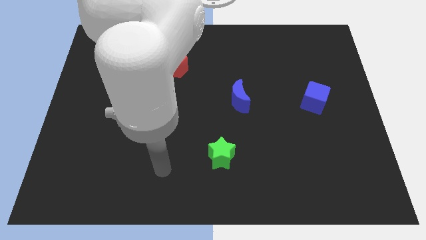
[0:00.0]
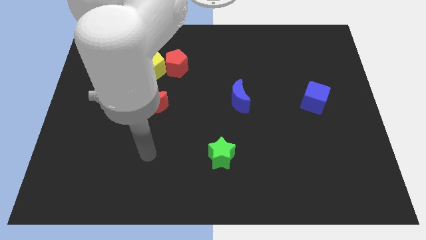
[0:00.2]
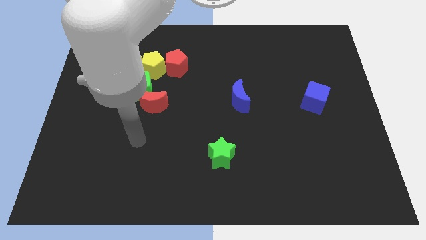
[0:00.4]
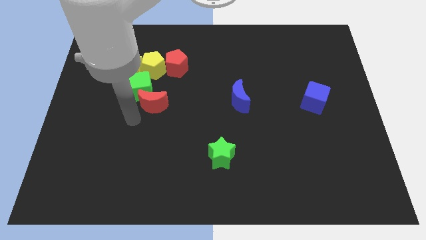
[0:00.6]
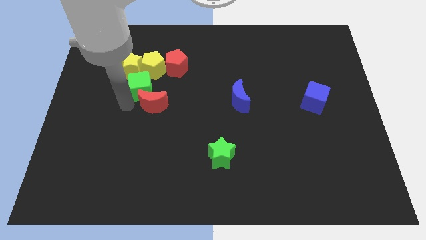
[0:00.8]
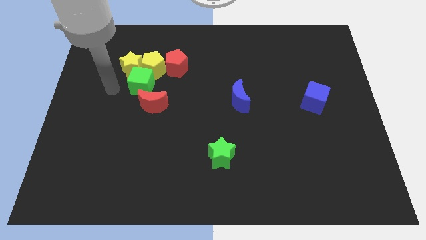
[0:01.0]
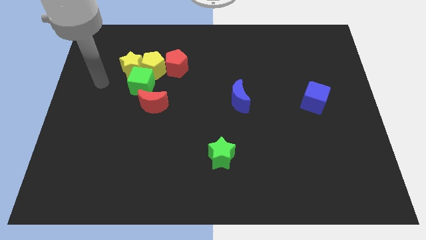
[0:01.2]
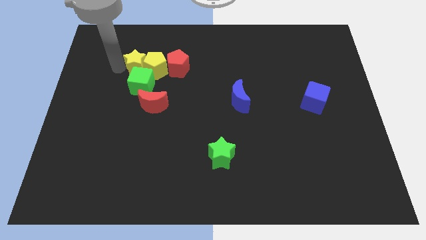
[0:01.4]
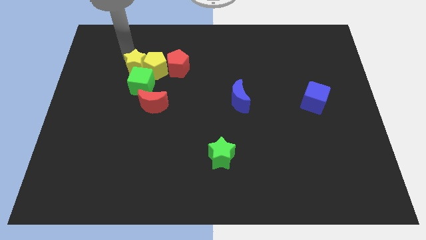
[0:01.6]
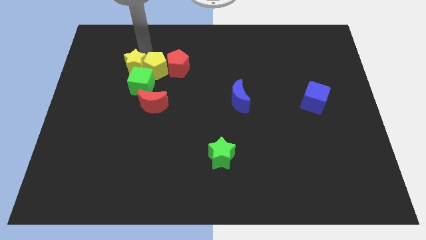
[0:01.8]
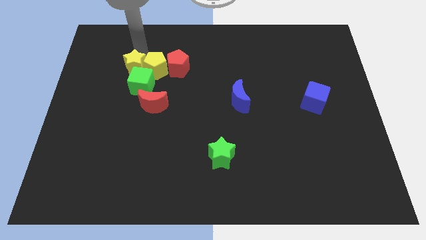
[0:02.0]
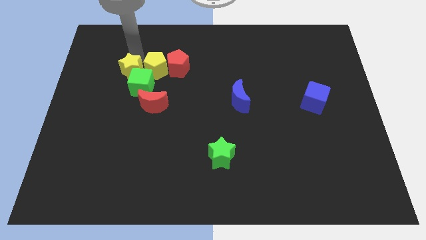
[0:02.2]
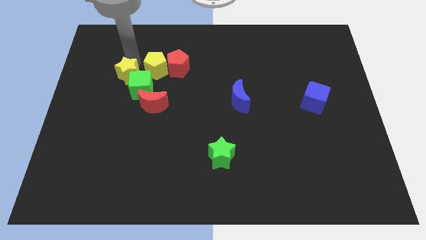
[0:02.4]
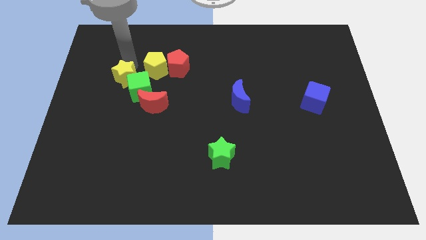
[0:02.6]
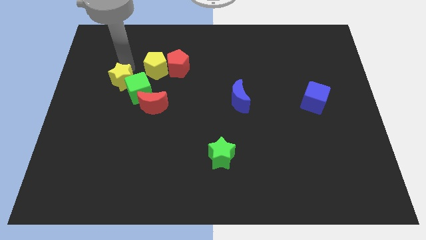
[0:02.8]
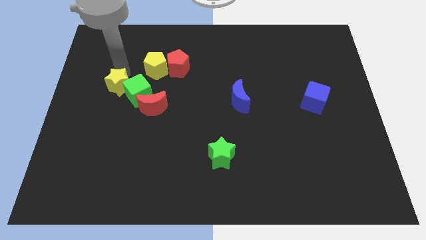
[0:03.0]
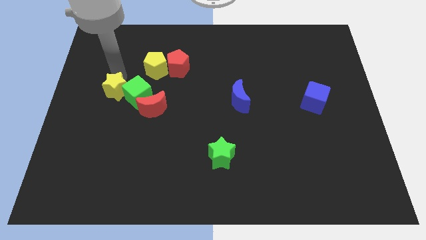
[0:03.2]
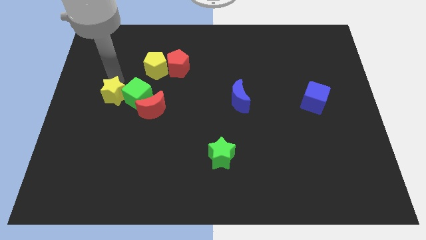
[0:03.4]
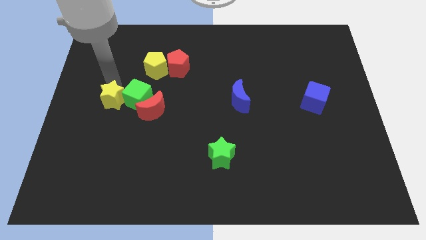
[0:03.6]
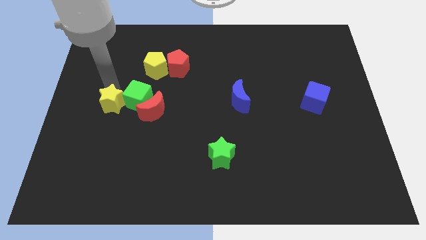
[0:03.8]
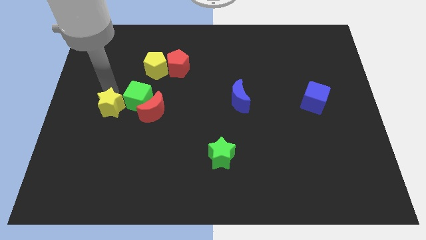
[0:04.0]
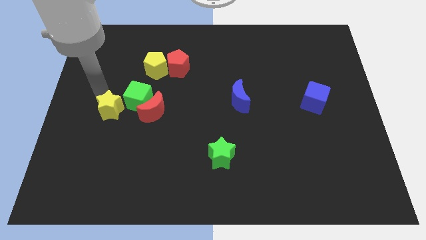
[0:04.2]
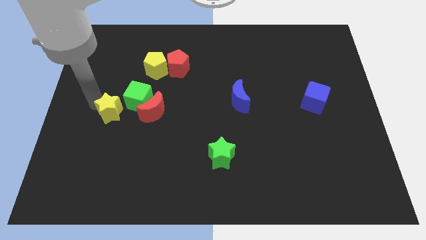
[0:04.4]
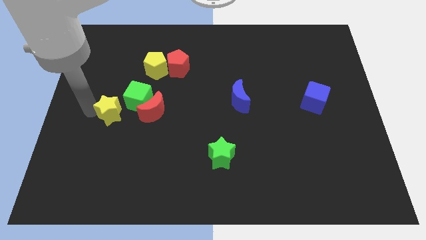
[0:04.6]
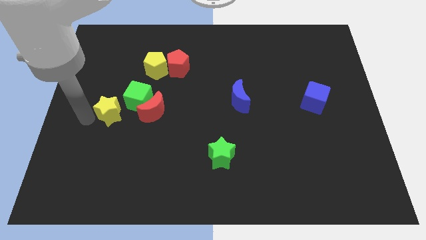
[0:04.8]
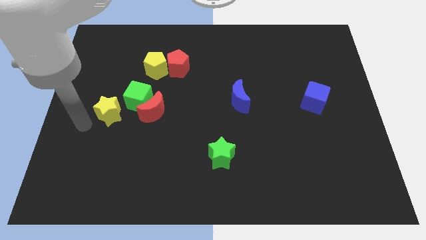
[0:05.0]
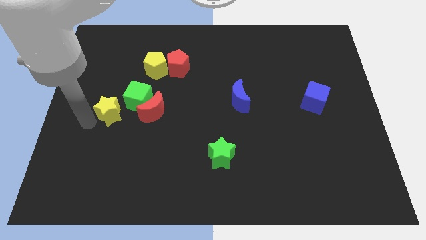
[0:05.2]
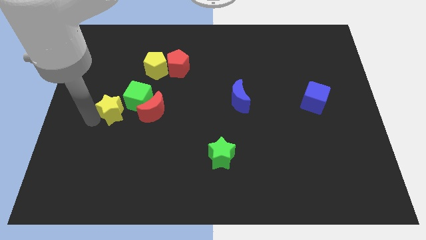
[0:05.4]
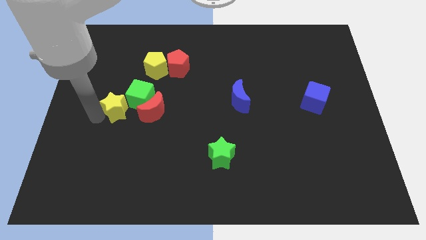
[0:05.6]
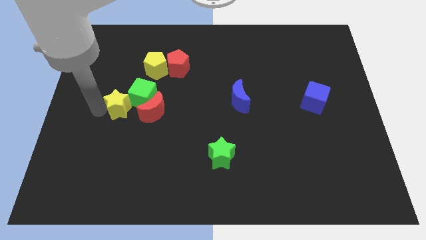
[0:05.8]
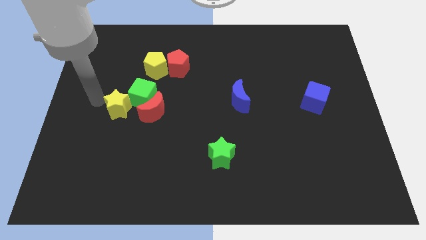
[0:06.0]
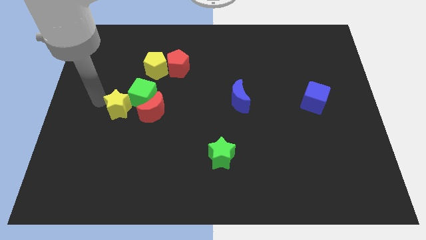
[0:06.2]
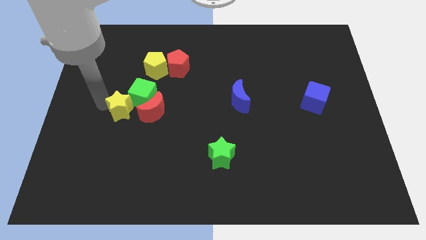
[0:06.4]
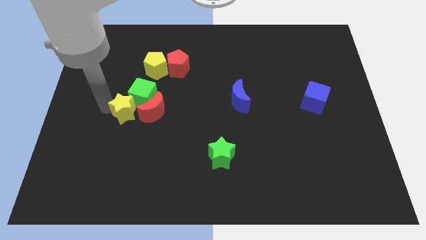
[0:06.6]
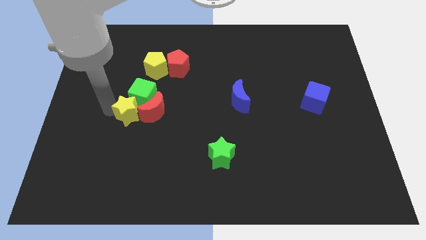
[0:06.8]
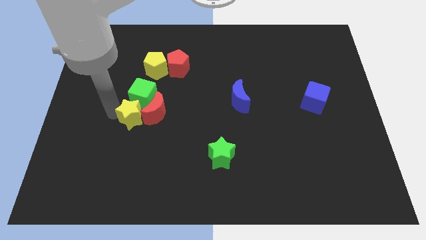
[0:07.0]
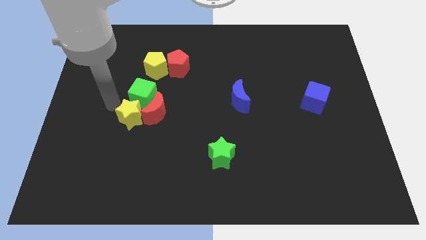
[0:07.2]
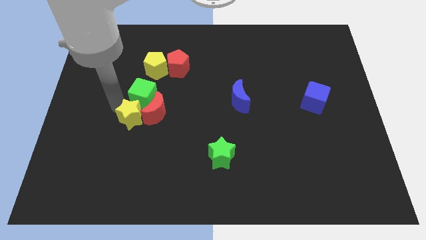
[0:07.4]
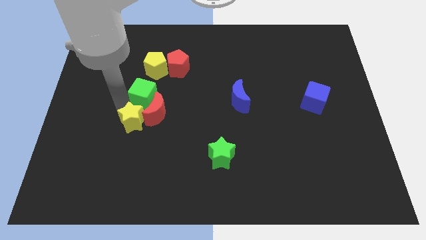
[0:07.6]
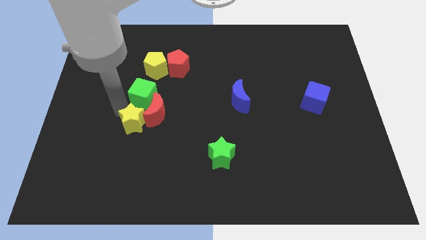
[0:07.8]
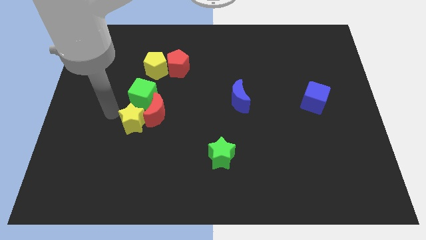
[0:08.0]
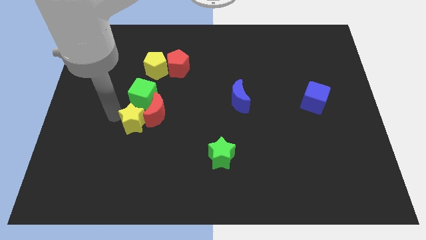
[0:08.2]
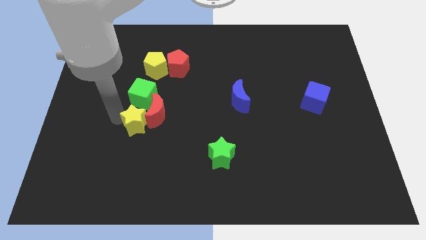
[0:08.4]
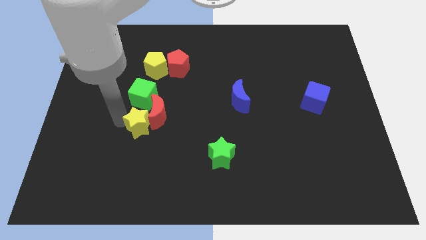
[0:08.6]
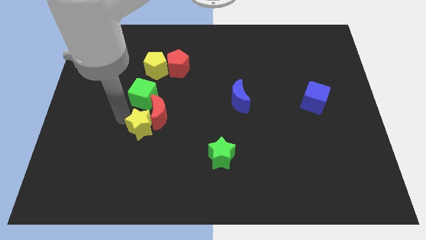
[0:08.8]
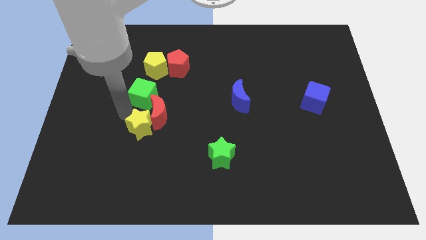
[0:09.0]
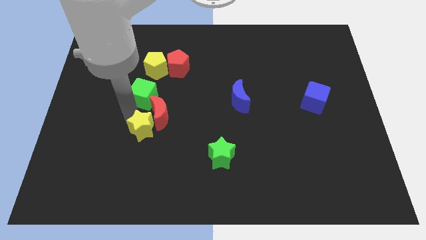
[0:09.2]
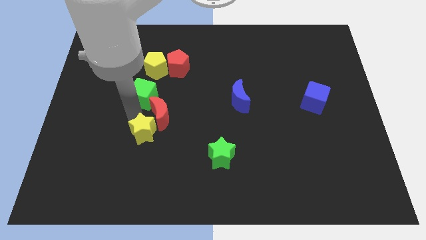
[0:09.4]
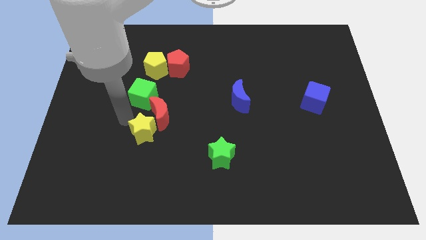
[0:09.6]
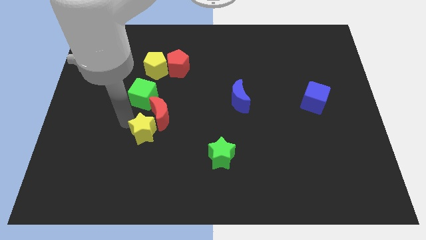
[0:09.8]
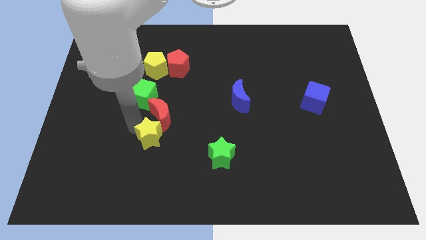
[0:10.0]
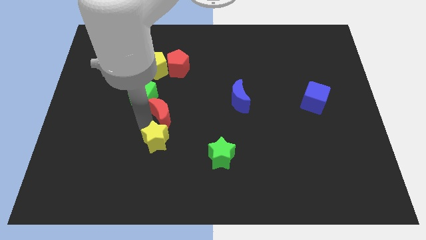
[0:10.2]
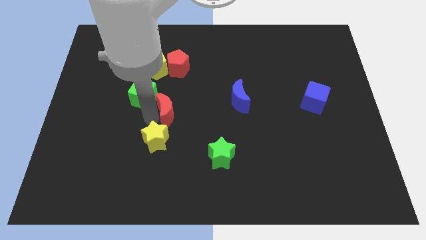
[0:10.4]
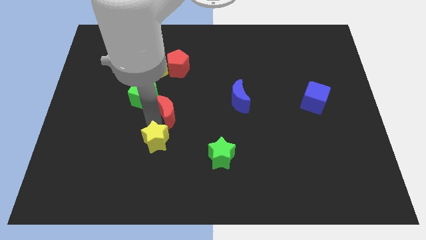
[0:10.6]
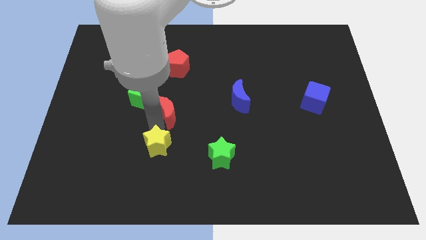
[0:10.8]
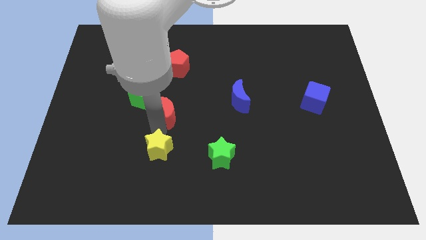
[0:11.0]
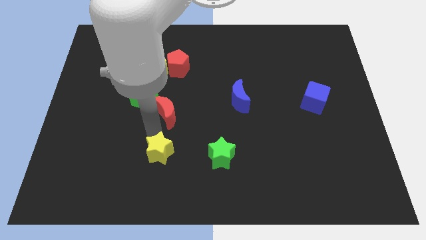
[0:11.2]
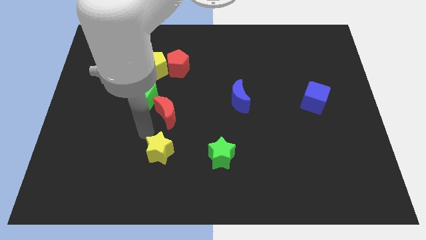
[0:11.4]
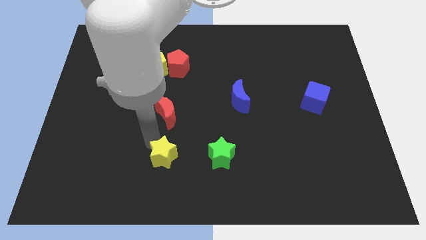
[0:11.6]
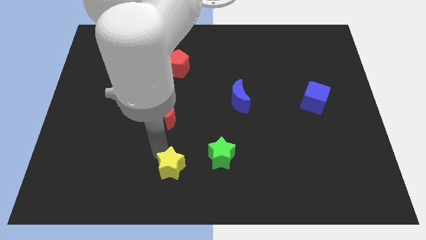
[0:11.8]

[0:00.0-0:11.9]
slide the yellow star to the bottom side

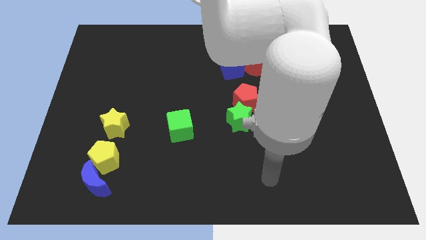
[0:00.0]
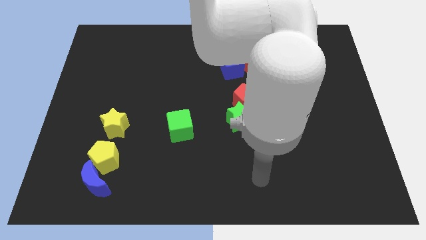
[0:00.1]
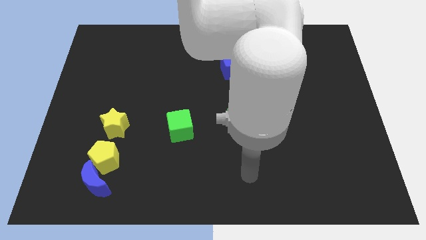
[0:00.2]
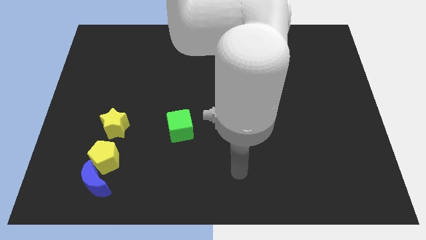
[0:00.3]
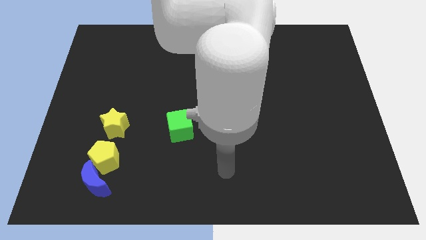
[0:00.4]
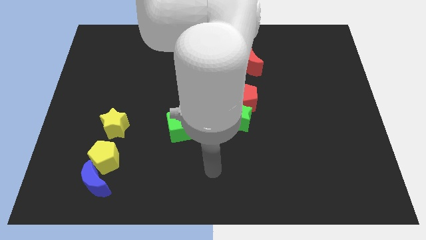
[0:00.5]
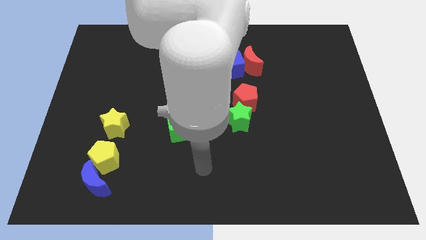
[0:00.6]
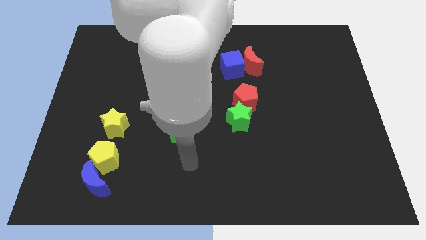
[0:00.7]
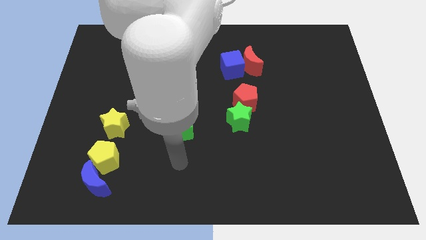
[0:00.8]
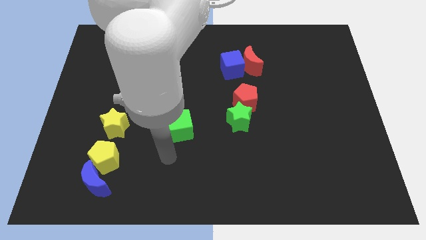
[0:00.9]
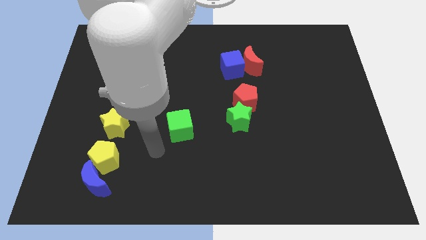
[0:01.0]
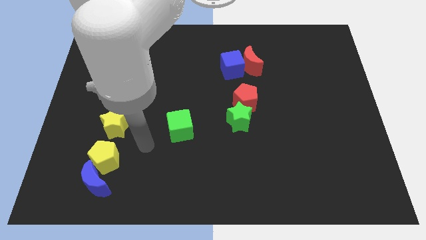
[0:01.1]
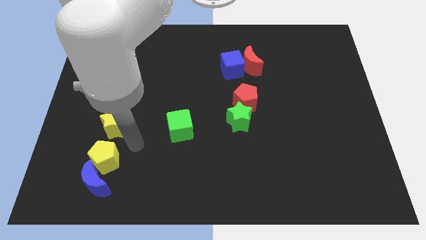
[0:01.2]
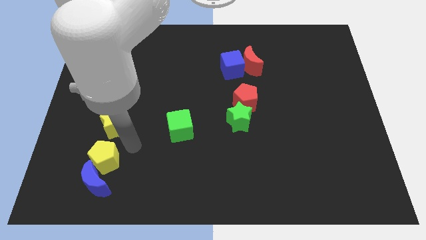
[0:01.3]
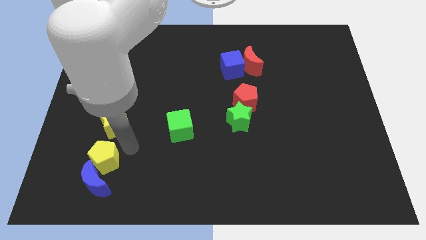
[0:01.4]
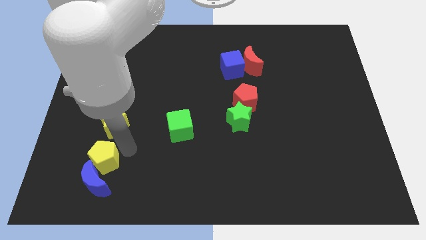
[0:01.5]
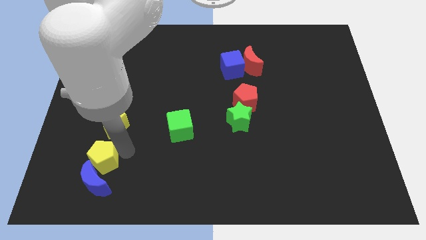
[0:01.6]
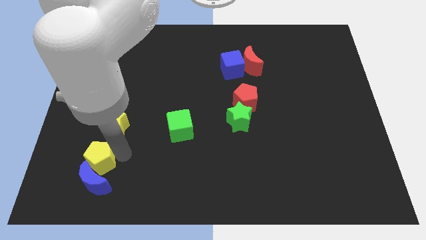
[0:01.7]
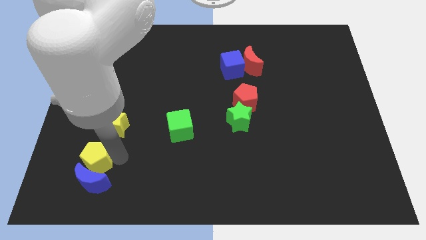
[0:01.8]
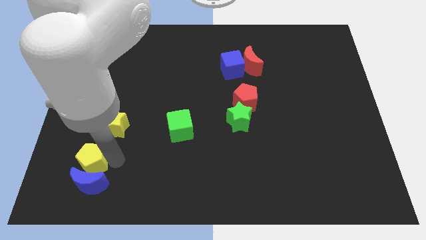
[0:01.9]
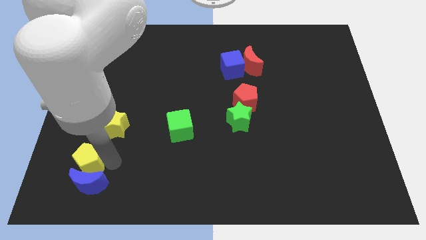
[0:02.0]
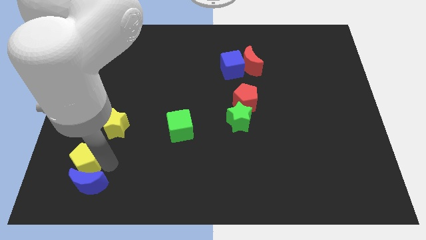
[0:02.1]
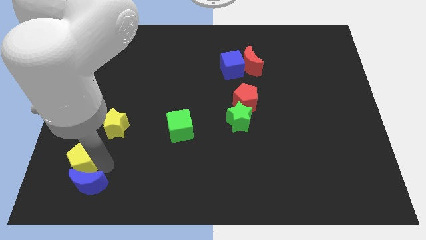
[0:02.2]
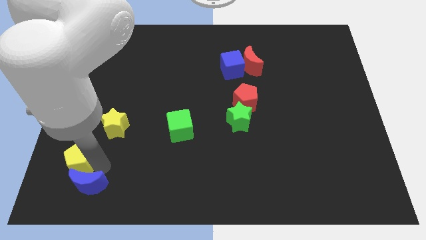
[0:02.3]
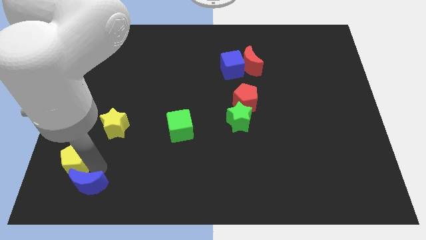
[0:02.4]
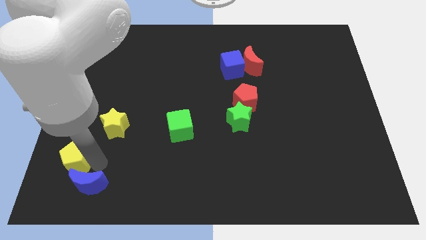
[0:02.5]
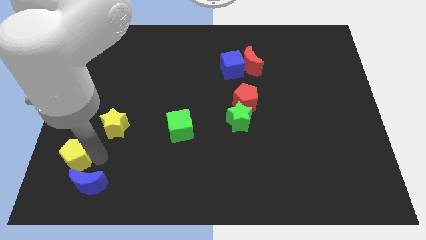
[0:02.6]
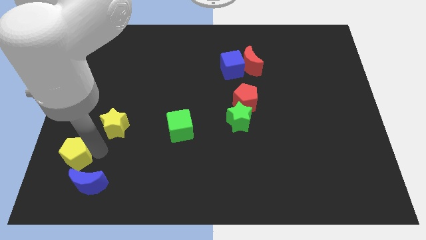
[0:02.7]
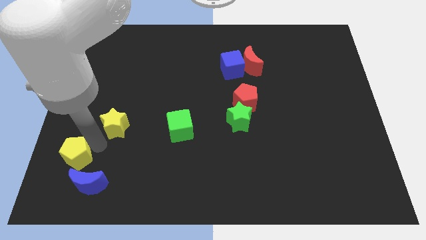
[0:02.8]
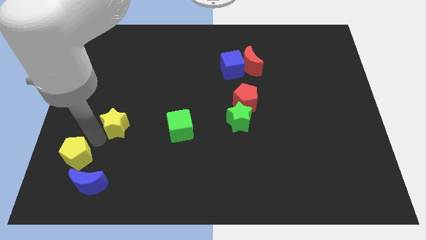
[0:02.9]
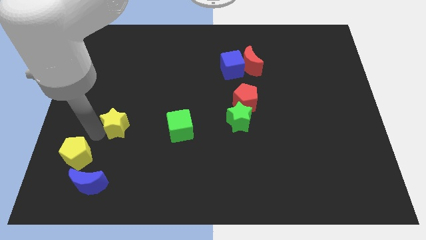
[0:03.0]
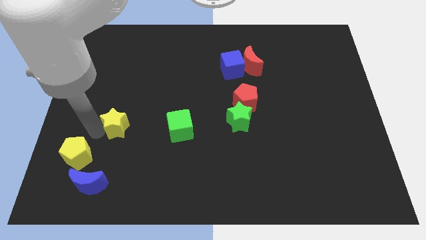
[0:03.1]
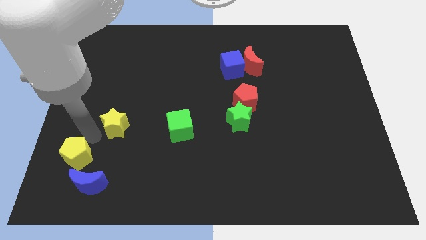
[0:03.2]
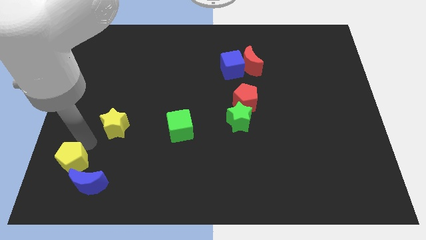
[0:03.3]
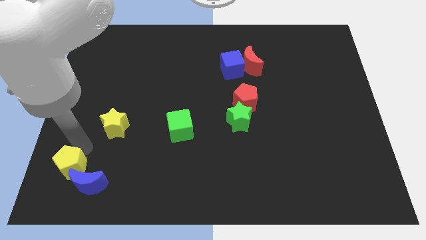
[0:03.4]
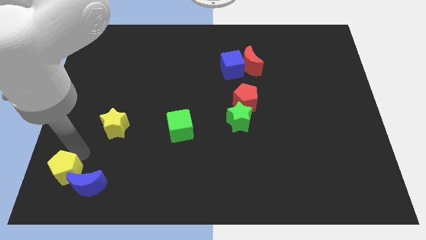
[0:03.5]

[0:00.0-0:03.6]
put the yellow pentagon to the bottom left corner
